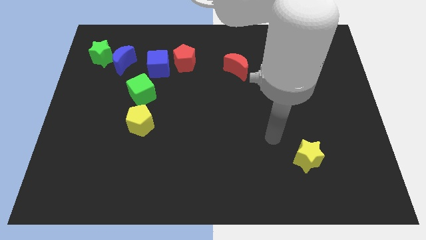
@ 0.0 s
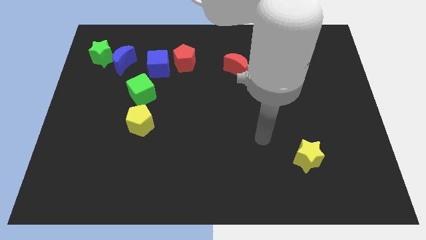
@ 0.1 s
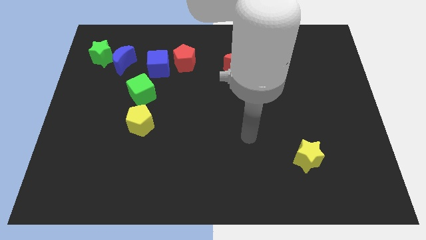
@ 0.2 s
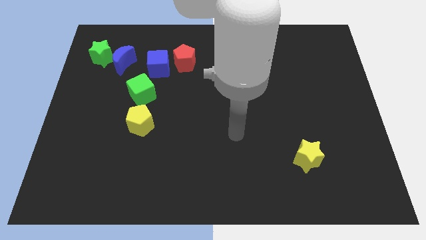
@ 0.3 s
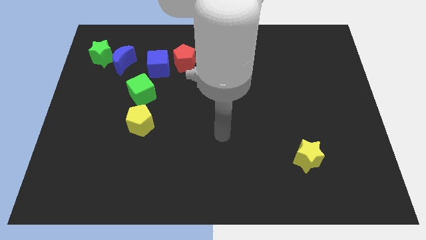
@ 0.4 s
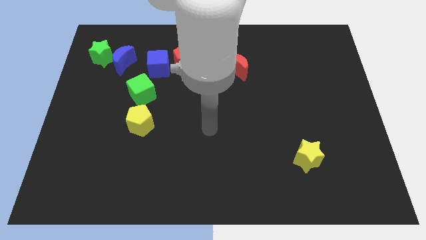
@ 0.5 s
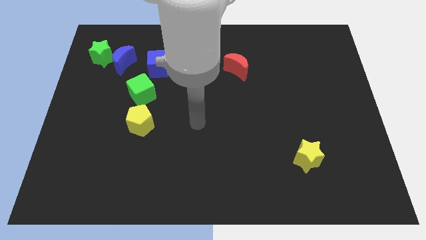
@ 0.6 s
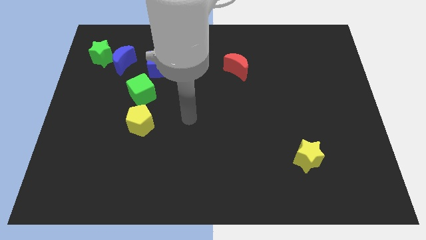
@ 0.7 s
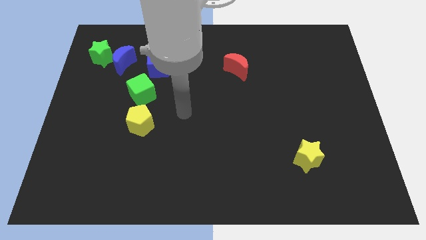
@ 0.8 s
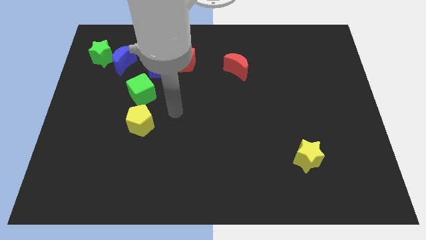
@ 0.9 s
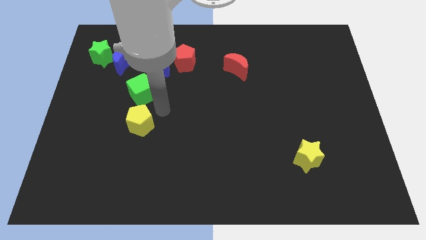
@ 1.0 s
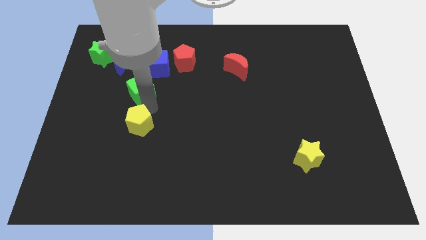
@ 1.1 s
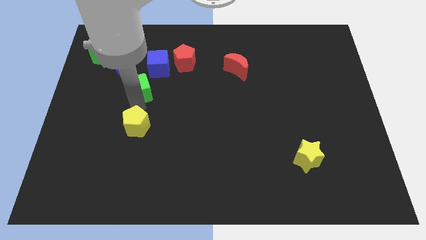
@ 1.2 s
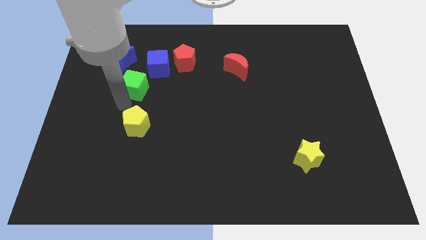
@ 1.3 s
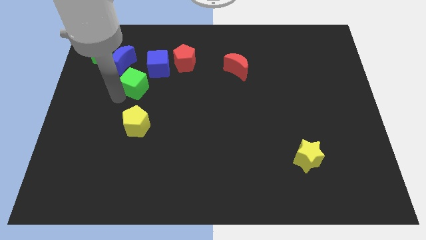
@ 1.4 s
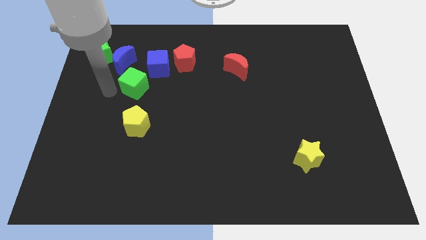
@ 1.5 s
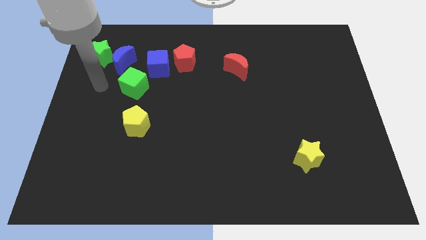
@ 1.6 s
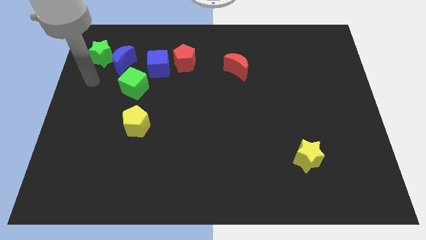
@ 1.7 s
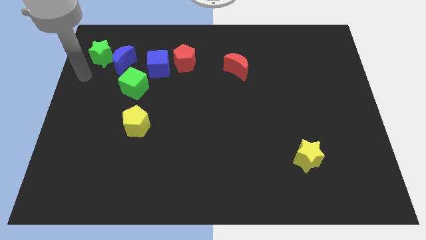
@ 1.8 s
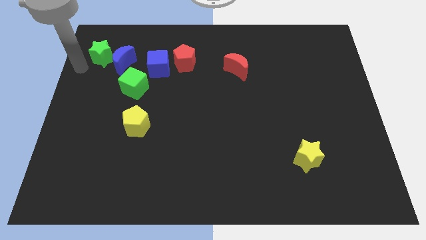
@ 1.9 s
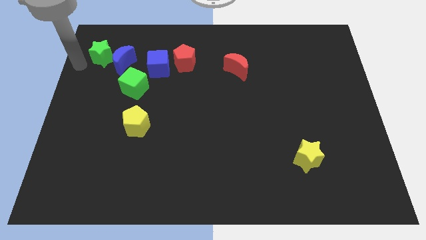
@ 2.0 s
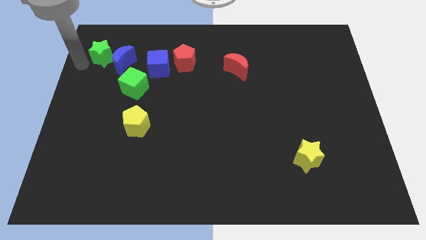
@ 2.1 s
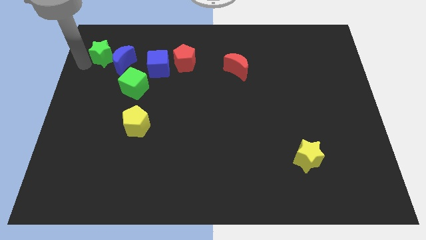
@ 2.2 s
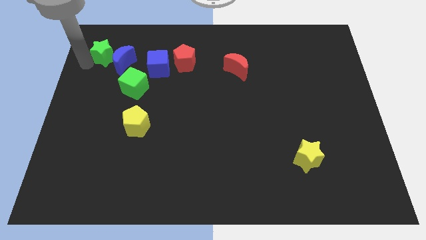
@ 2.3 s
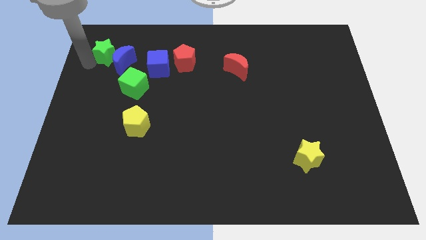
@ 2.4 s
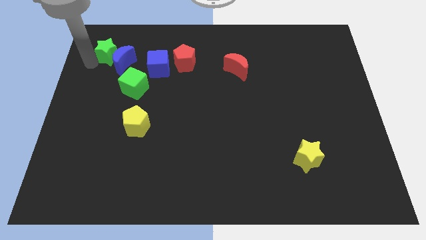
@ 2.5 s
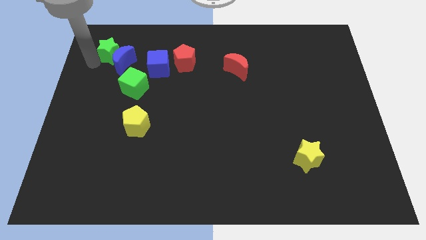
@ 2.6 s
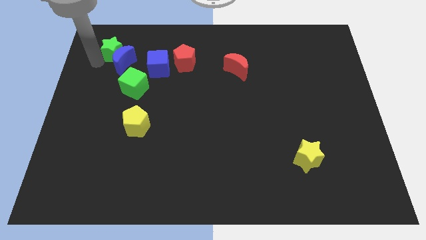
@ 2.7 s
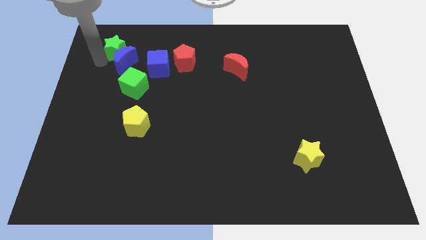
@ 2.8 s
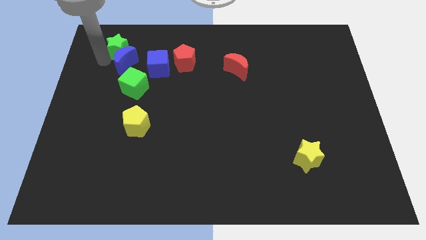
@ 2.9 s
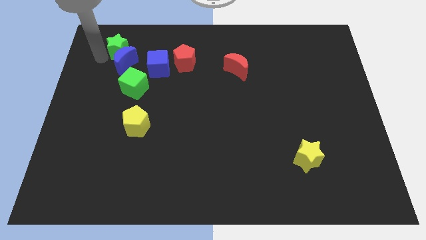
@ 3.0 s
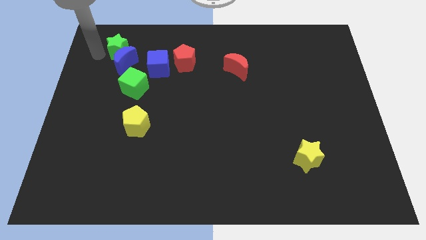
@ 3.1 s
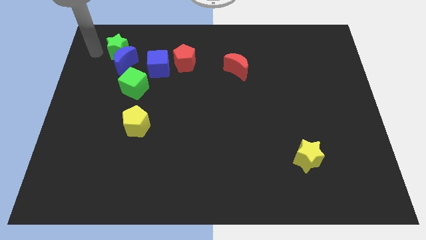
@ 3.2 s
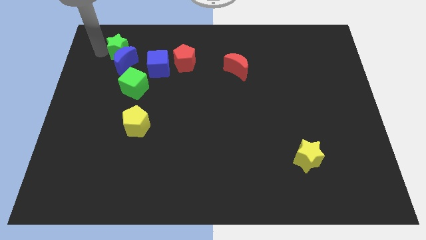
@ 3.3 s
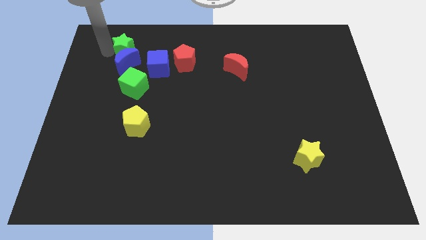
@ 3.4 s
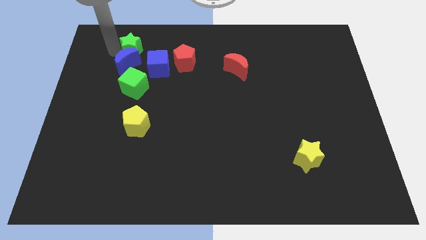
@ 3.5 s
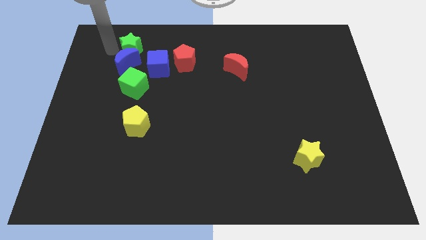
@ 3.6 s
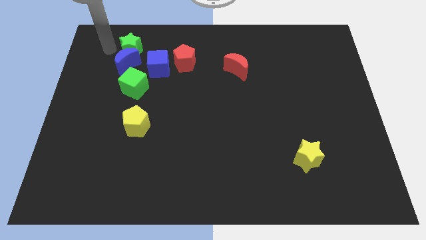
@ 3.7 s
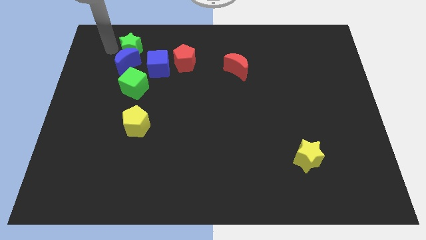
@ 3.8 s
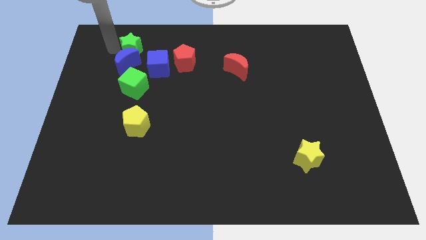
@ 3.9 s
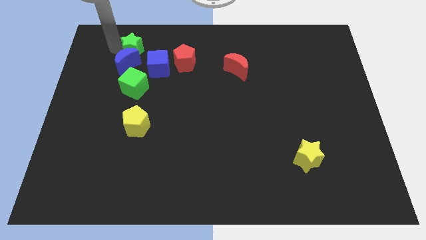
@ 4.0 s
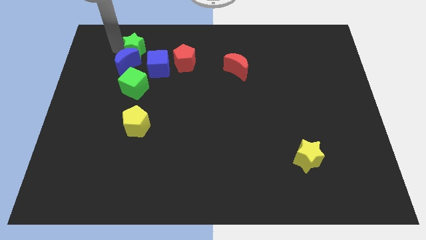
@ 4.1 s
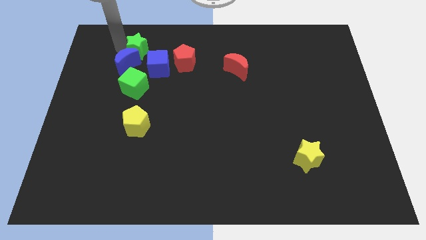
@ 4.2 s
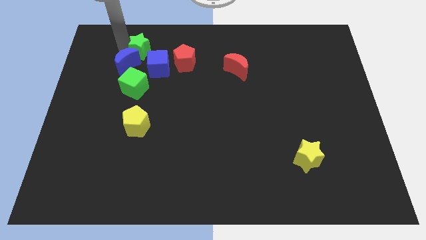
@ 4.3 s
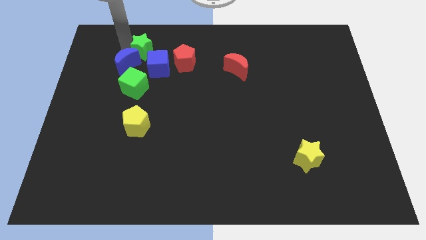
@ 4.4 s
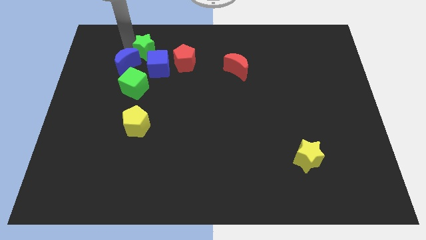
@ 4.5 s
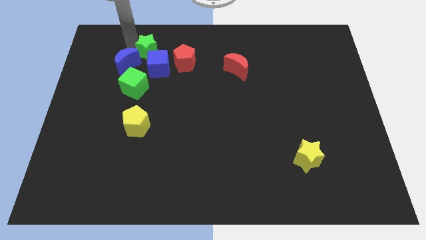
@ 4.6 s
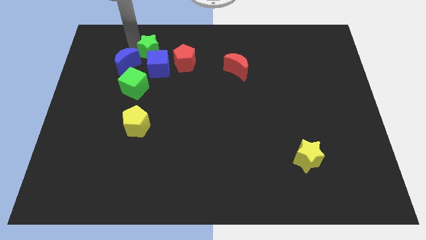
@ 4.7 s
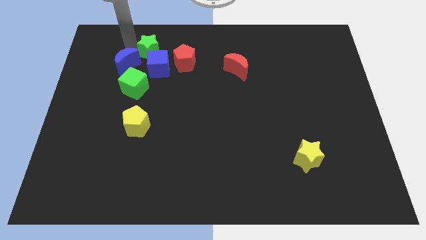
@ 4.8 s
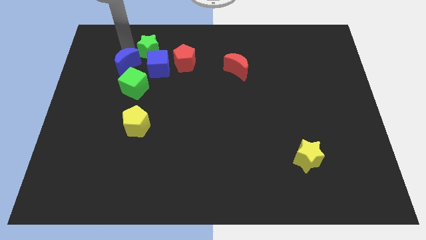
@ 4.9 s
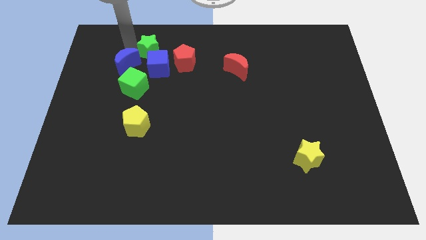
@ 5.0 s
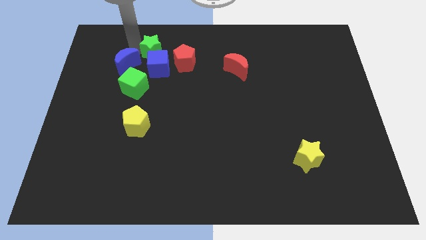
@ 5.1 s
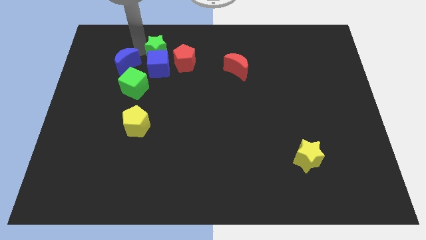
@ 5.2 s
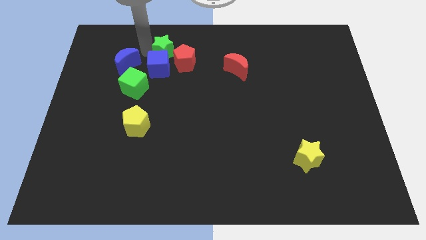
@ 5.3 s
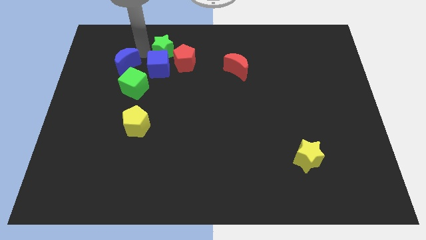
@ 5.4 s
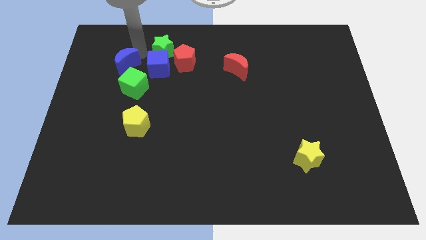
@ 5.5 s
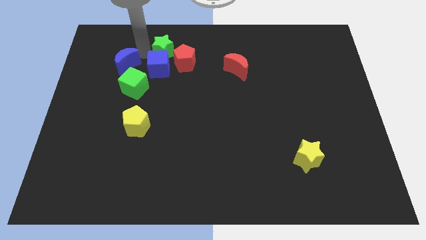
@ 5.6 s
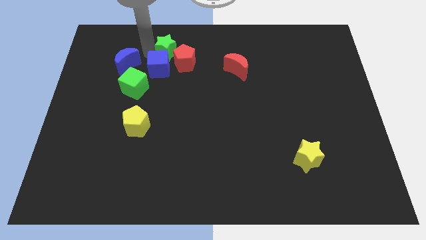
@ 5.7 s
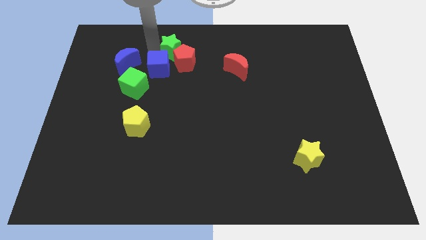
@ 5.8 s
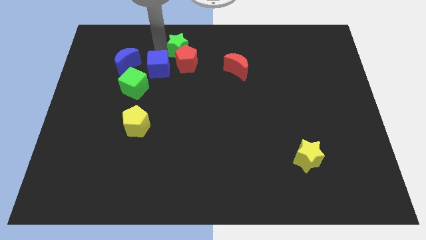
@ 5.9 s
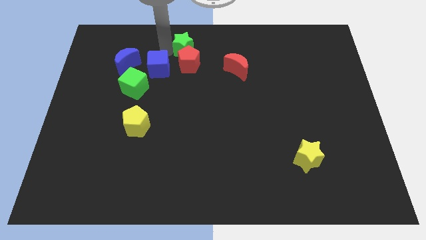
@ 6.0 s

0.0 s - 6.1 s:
move the green star to the right

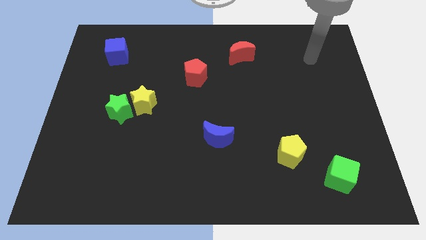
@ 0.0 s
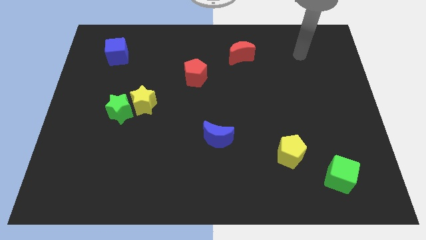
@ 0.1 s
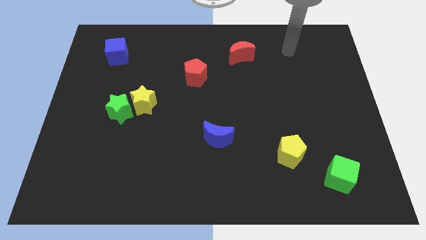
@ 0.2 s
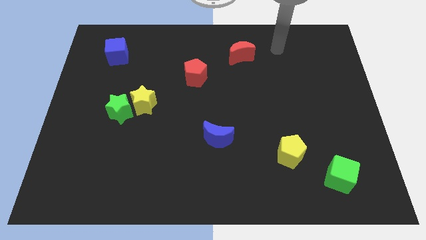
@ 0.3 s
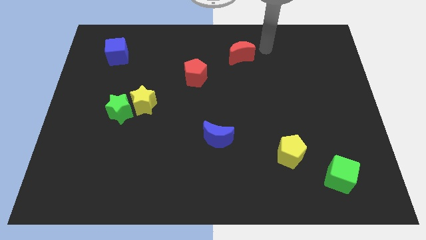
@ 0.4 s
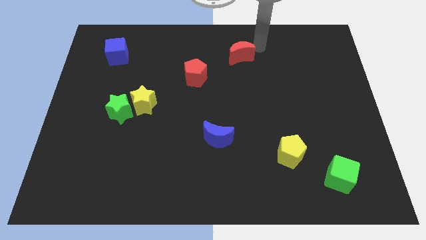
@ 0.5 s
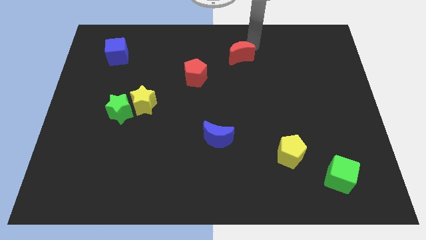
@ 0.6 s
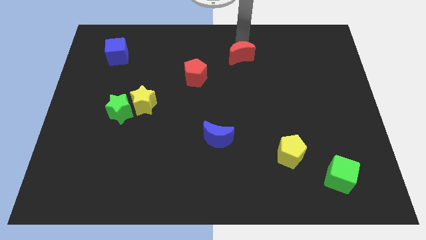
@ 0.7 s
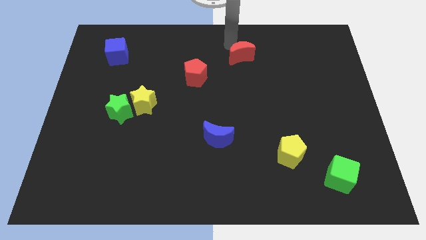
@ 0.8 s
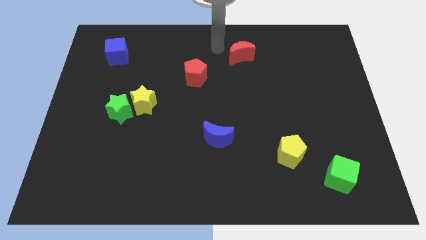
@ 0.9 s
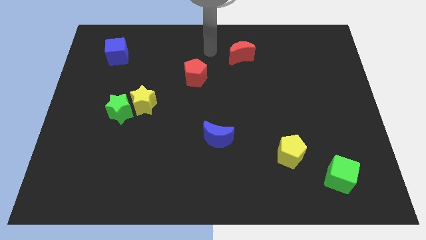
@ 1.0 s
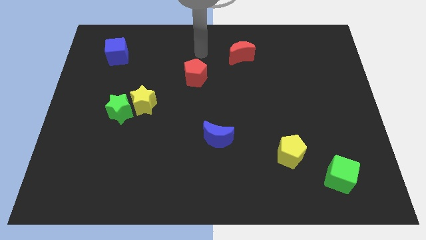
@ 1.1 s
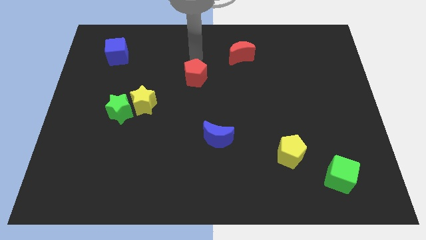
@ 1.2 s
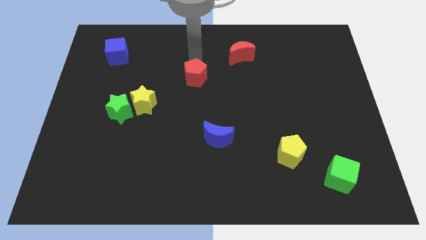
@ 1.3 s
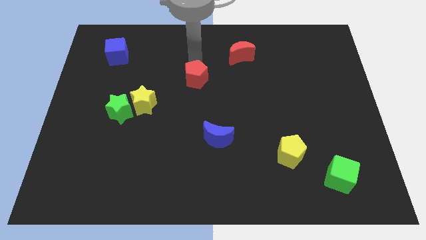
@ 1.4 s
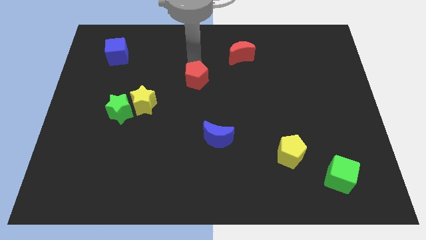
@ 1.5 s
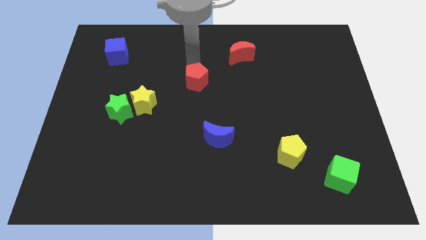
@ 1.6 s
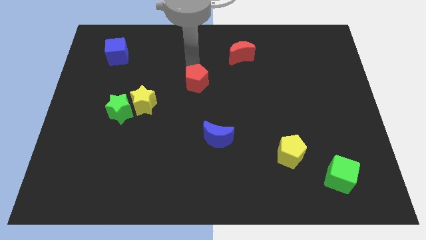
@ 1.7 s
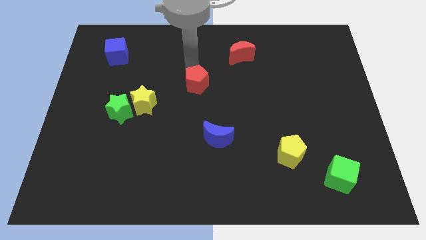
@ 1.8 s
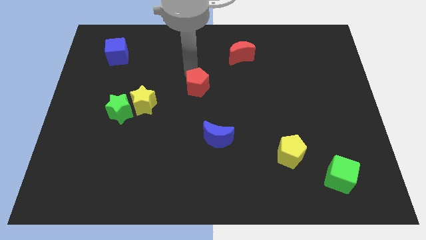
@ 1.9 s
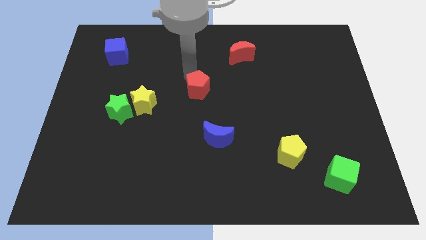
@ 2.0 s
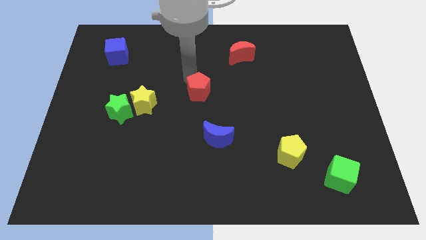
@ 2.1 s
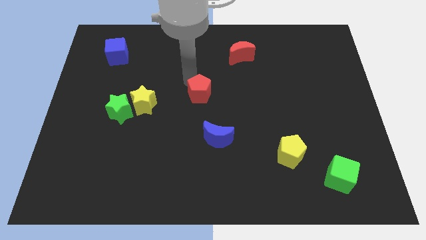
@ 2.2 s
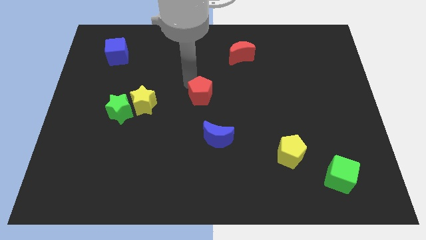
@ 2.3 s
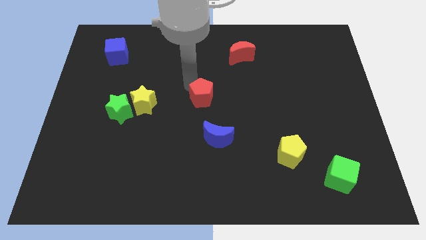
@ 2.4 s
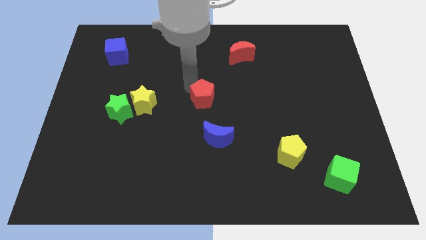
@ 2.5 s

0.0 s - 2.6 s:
move the red pentagon slightly down
